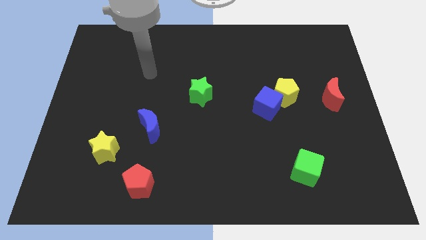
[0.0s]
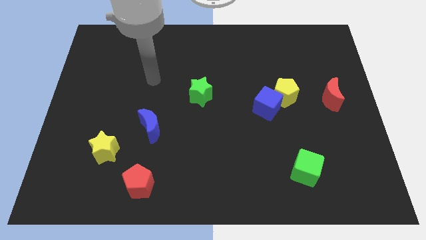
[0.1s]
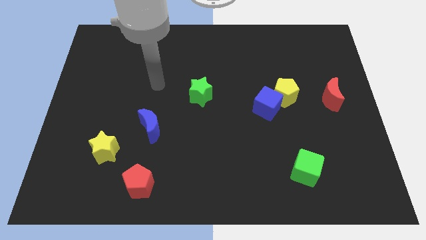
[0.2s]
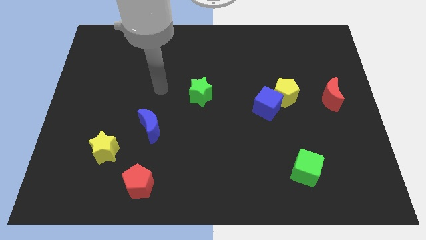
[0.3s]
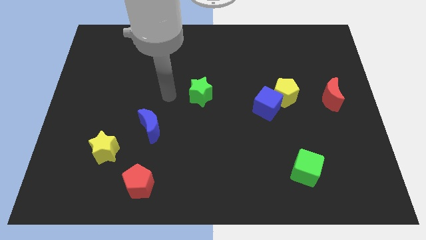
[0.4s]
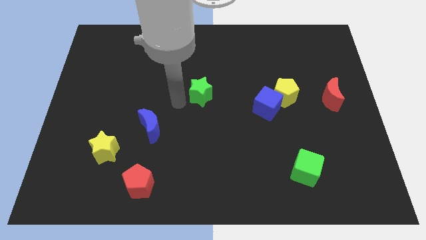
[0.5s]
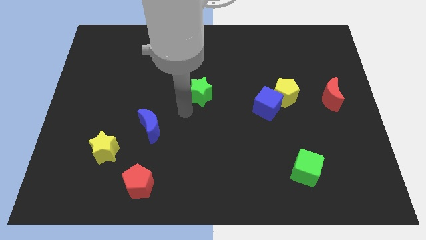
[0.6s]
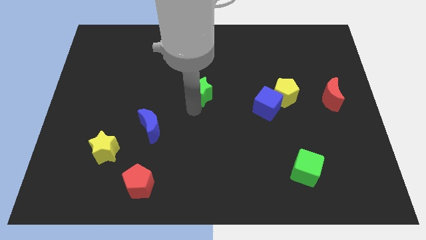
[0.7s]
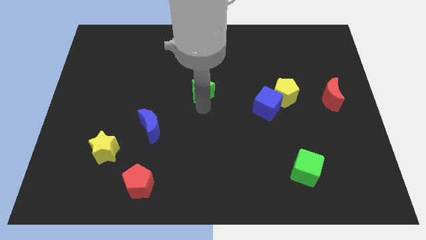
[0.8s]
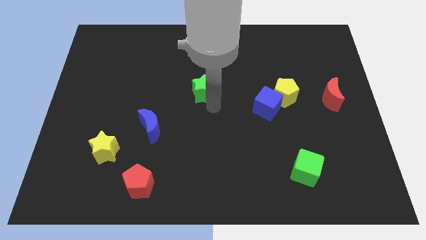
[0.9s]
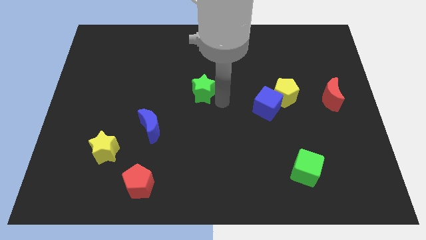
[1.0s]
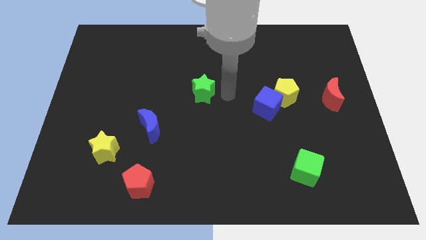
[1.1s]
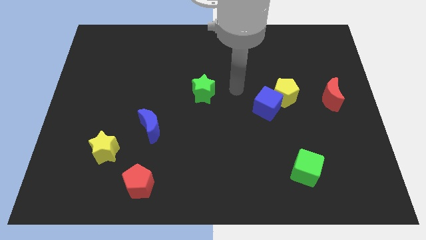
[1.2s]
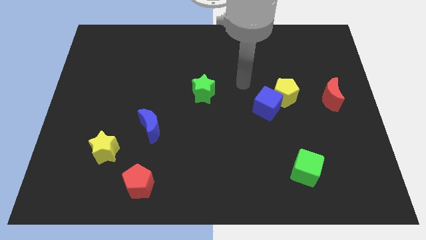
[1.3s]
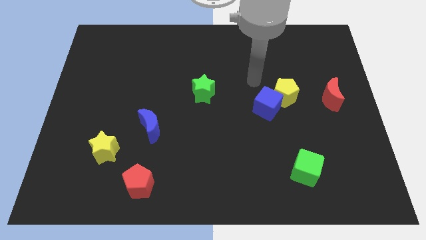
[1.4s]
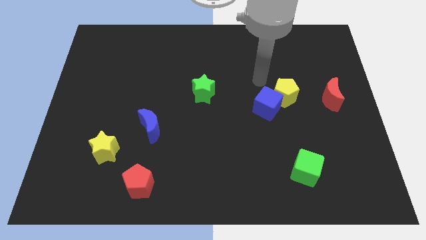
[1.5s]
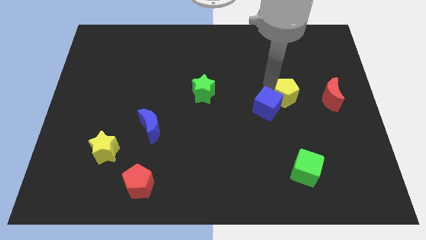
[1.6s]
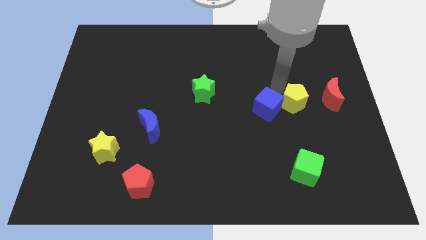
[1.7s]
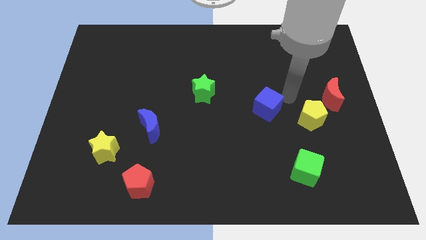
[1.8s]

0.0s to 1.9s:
pull the blue cube apart from the yellow pentagon

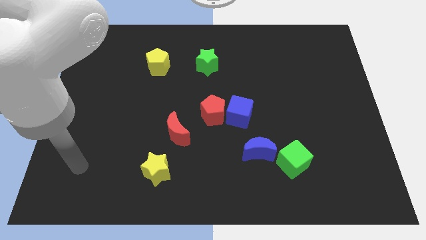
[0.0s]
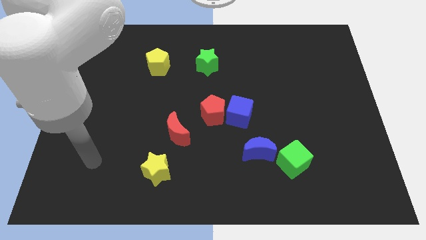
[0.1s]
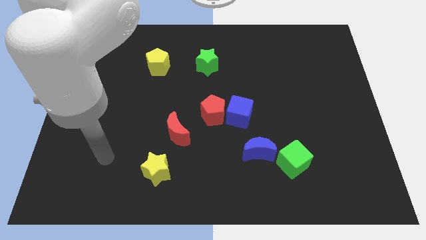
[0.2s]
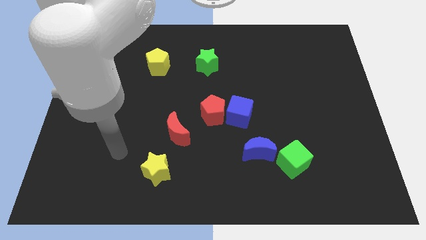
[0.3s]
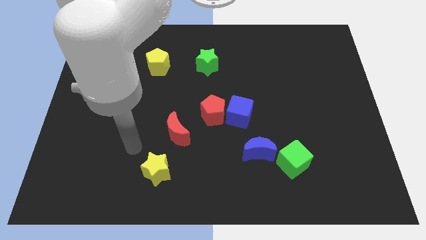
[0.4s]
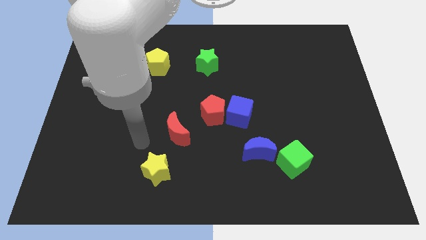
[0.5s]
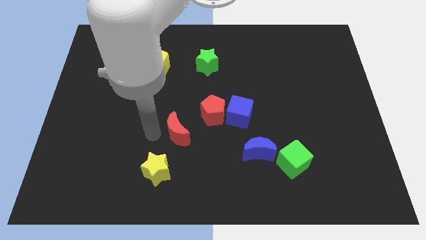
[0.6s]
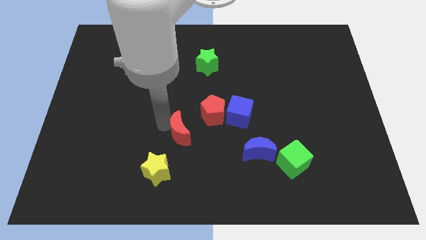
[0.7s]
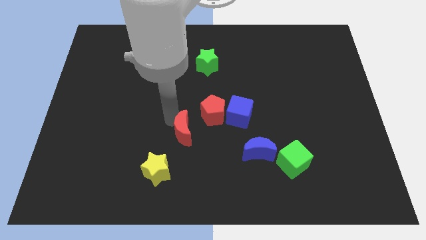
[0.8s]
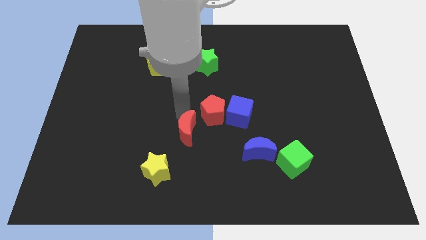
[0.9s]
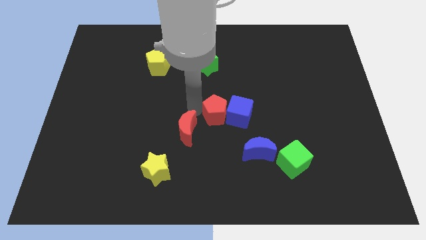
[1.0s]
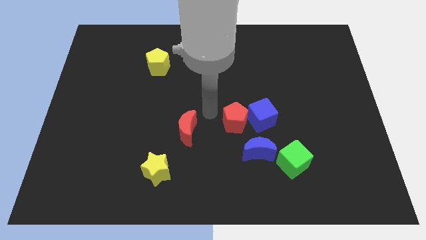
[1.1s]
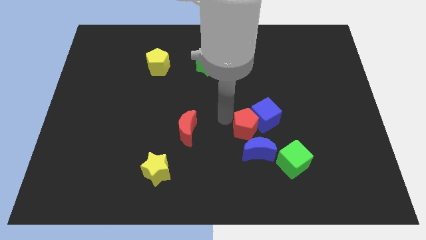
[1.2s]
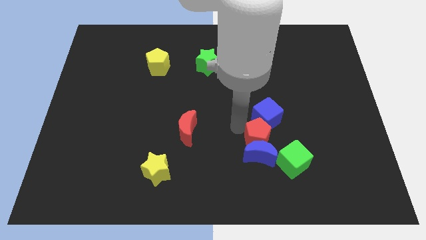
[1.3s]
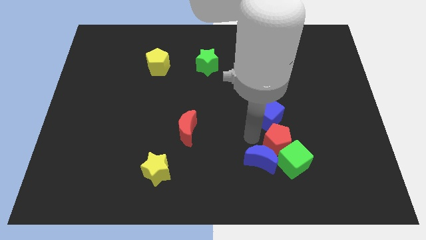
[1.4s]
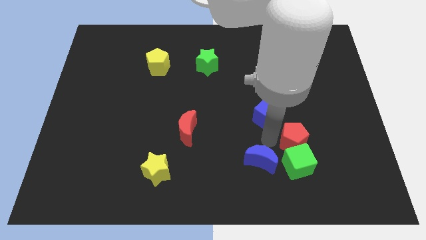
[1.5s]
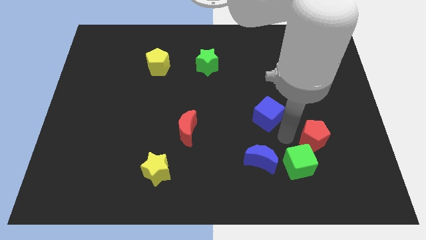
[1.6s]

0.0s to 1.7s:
move the blue cube away from the red pentagon

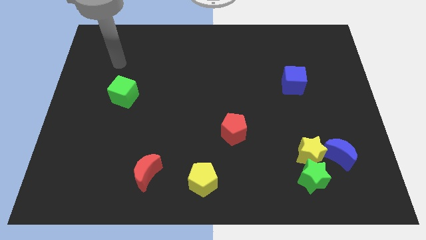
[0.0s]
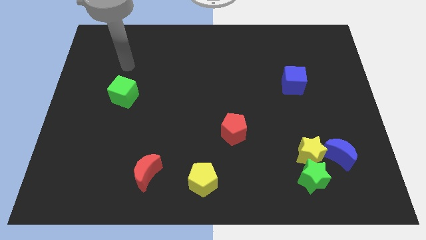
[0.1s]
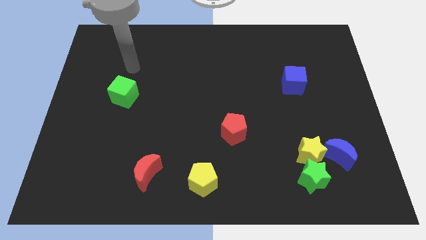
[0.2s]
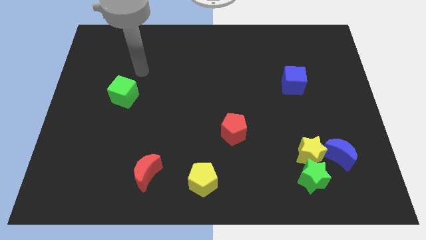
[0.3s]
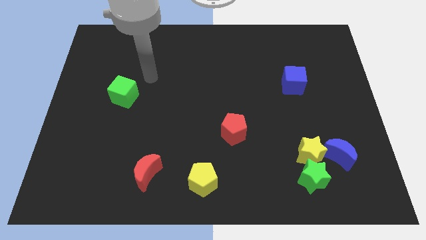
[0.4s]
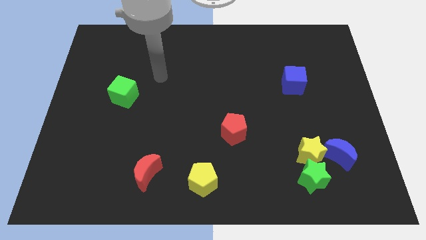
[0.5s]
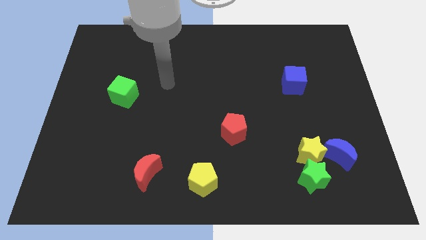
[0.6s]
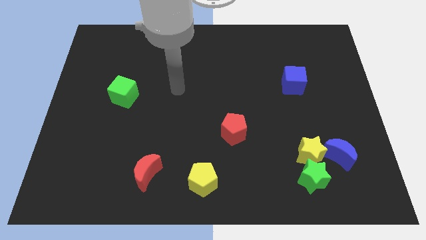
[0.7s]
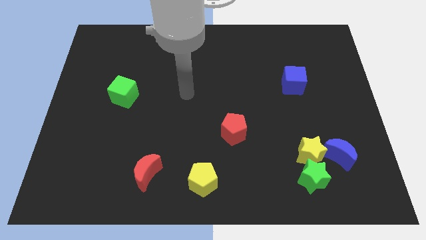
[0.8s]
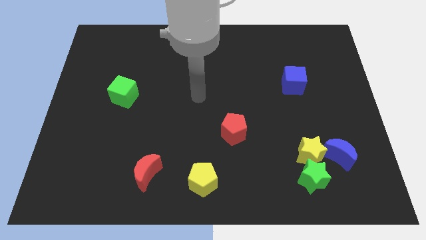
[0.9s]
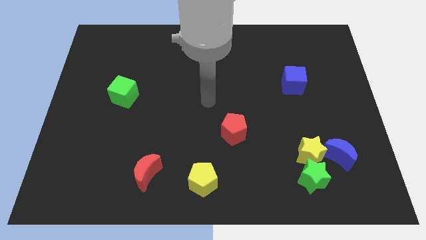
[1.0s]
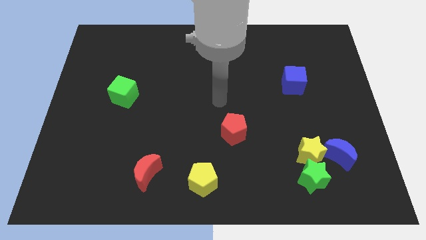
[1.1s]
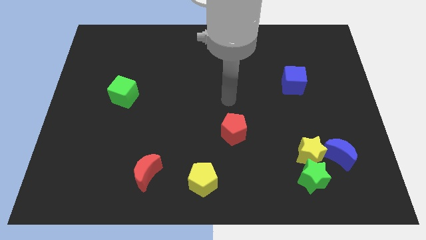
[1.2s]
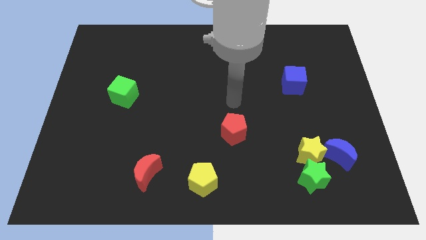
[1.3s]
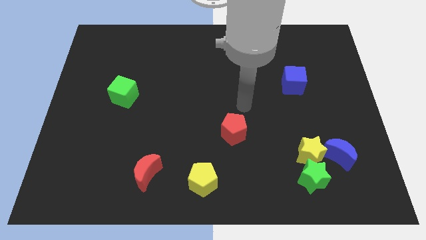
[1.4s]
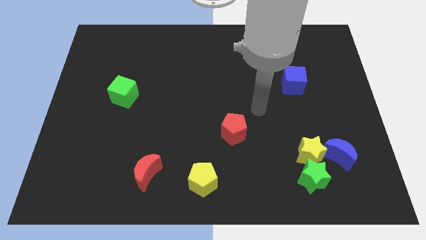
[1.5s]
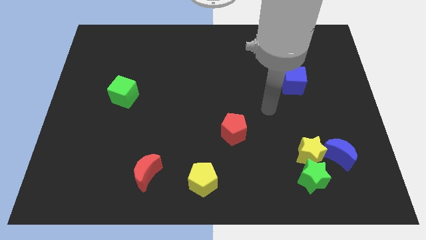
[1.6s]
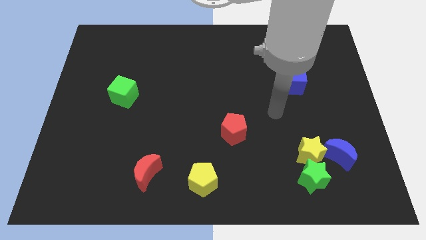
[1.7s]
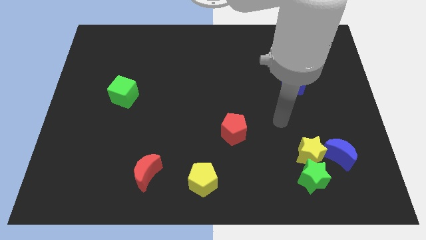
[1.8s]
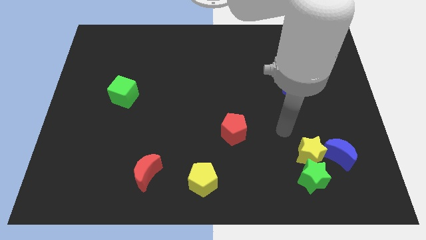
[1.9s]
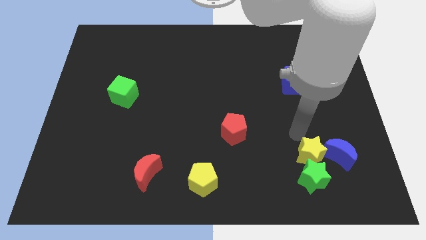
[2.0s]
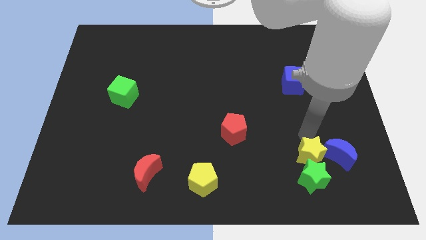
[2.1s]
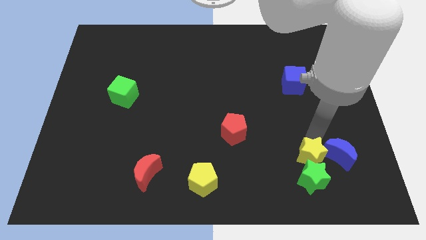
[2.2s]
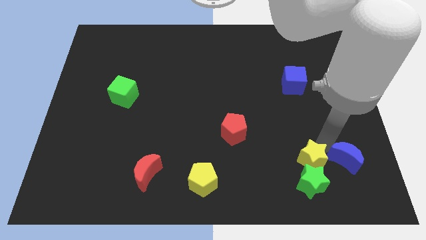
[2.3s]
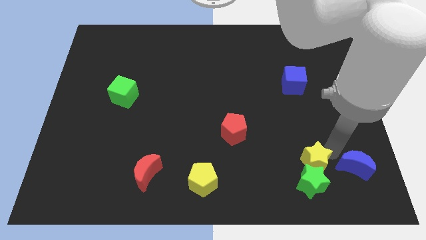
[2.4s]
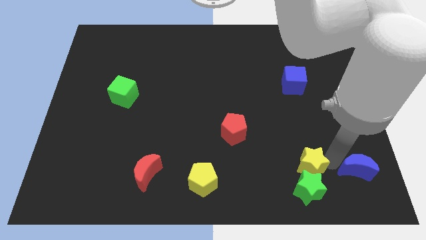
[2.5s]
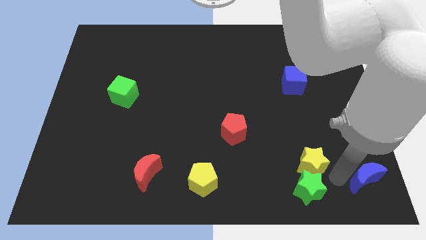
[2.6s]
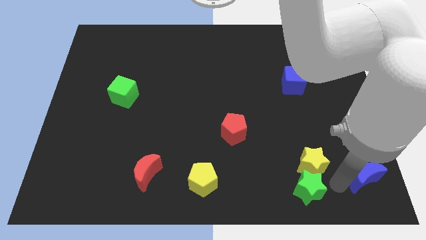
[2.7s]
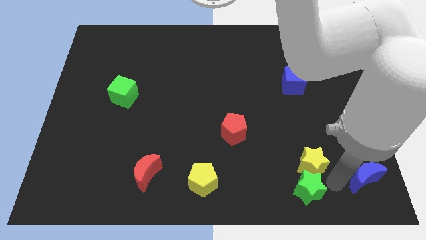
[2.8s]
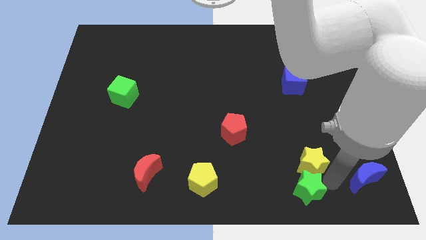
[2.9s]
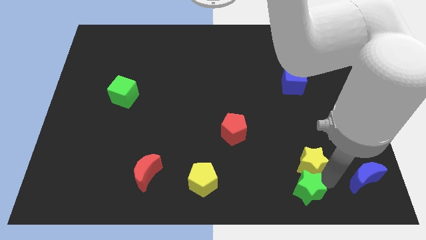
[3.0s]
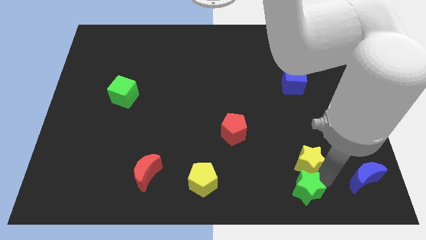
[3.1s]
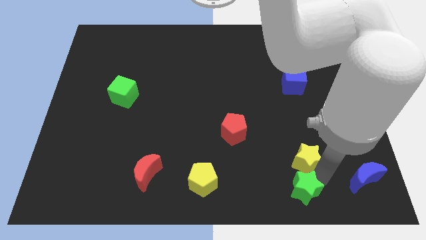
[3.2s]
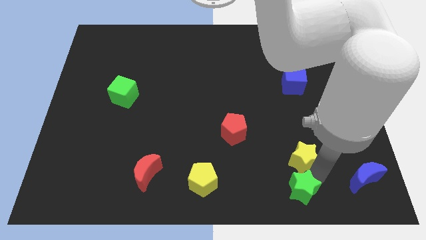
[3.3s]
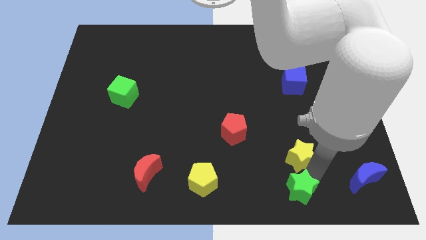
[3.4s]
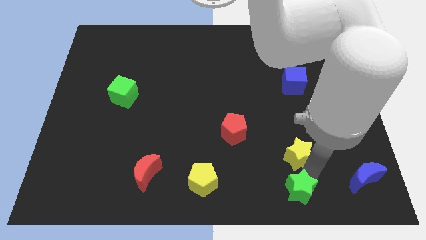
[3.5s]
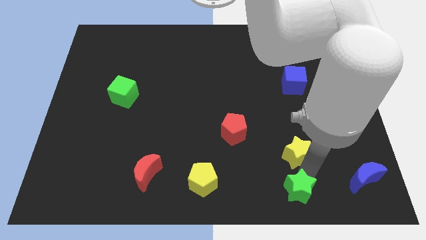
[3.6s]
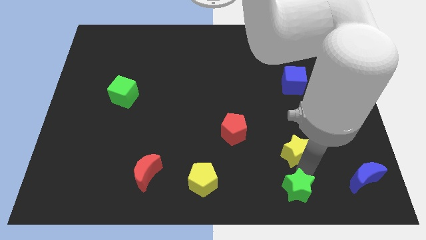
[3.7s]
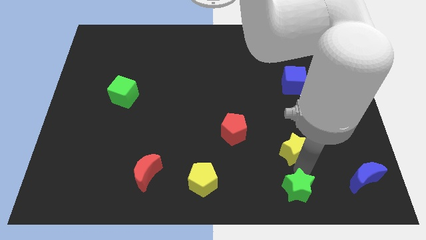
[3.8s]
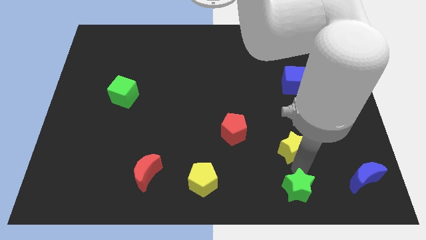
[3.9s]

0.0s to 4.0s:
separate the yellow star from the green star and blue moon

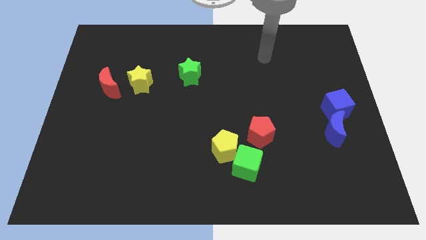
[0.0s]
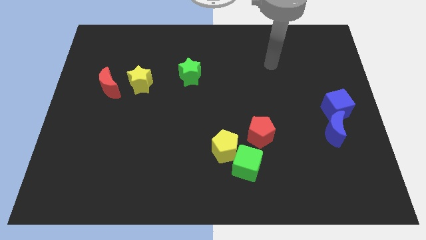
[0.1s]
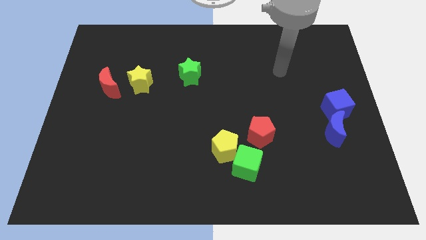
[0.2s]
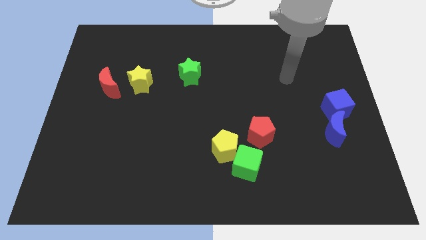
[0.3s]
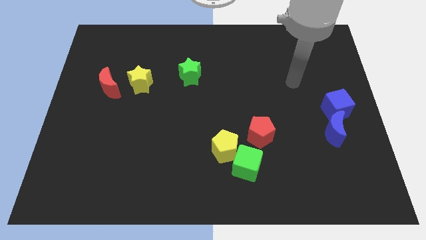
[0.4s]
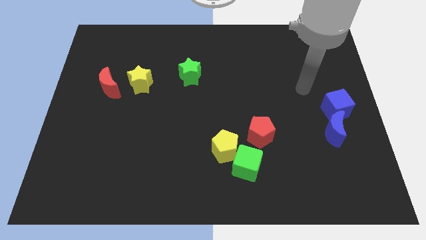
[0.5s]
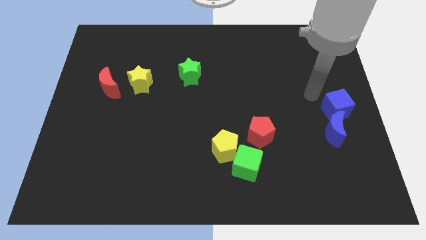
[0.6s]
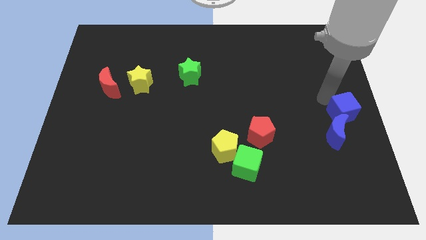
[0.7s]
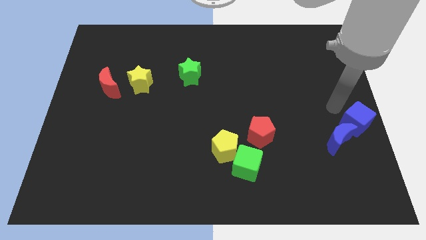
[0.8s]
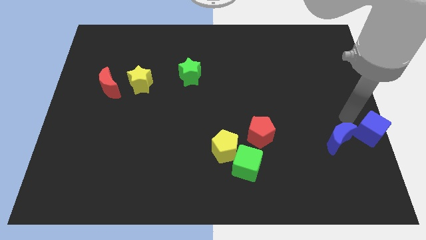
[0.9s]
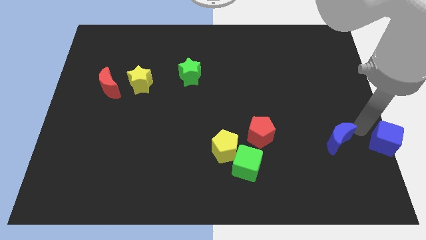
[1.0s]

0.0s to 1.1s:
pull the blue moon apart from the blue cube

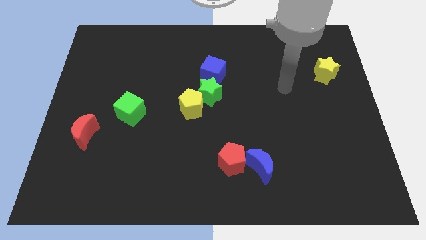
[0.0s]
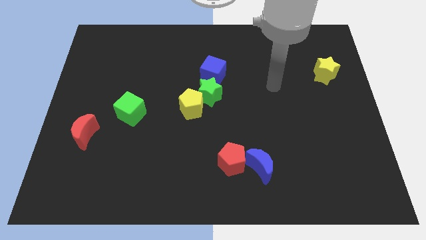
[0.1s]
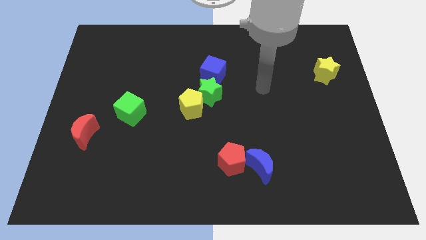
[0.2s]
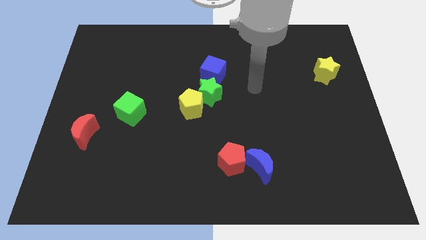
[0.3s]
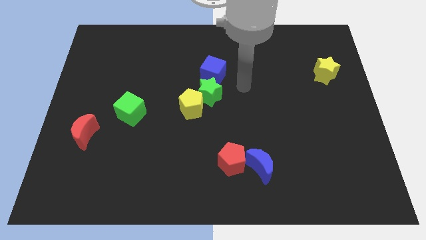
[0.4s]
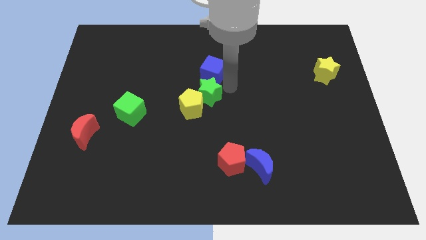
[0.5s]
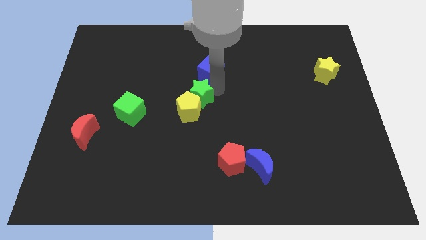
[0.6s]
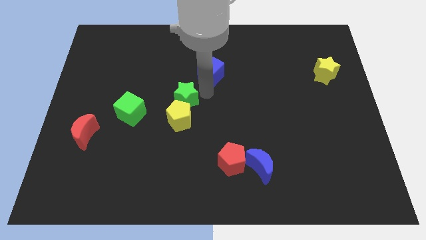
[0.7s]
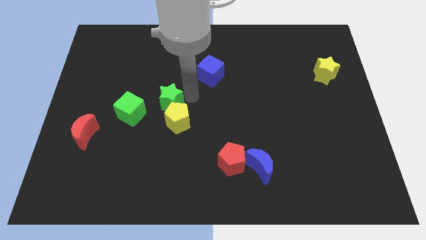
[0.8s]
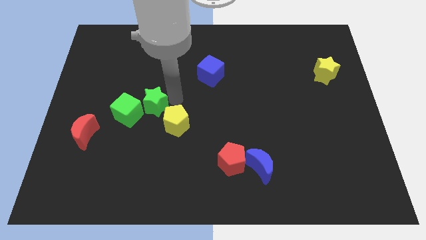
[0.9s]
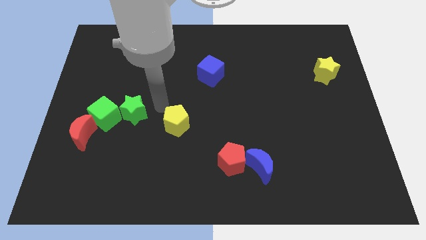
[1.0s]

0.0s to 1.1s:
separate the yellow pentagon from the green star
